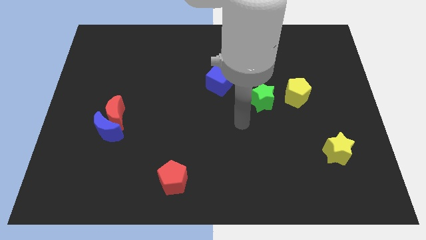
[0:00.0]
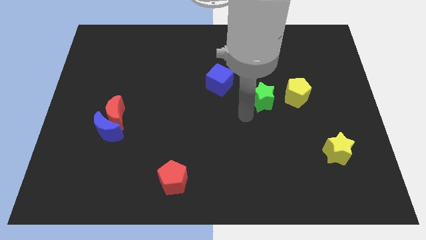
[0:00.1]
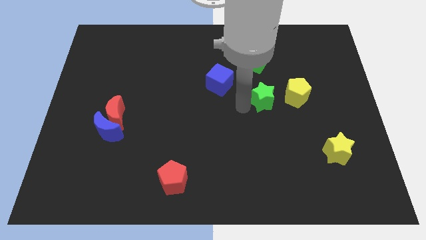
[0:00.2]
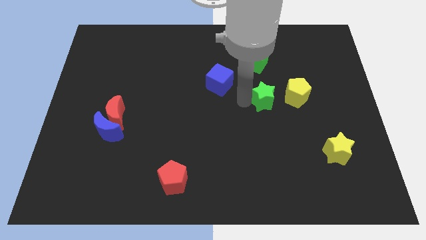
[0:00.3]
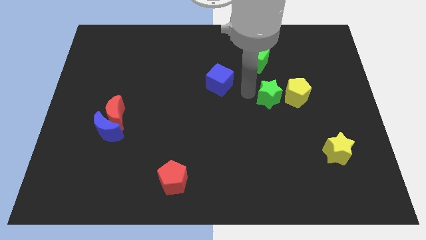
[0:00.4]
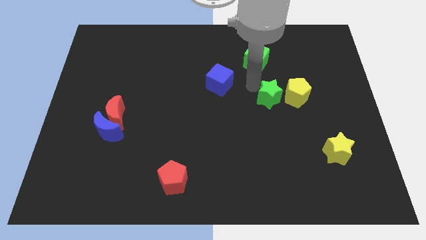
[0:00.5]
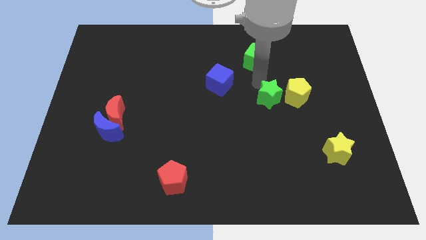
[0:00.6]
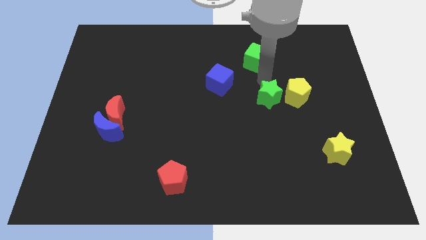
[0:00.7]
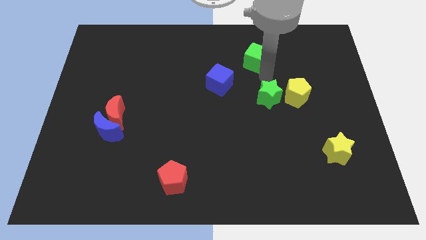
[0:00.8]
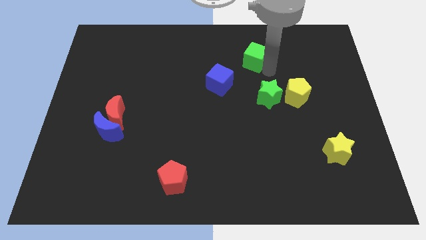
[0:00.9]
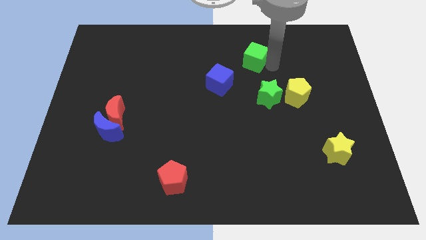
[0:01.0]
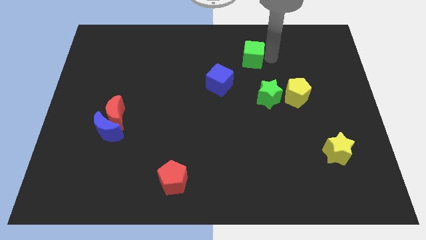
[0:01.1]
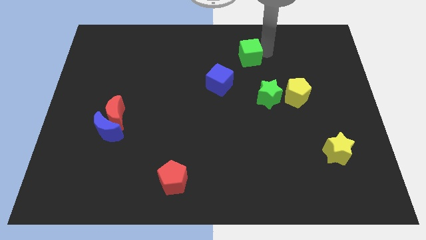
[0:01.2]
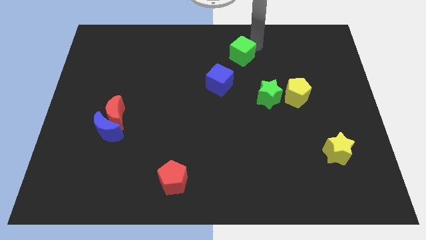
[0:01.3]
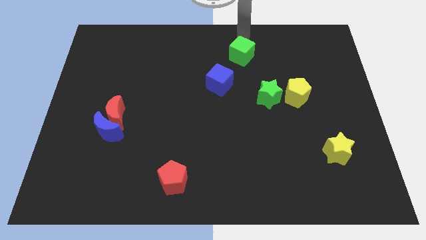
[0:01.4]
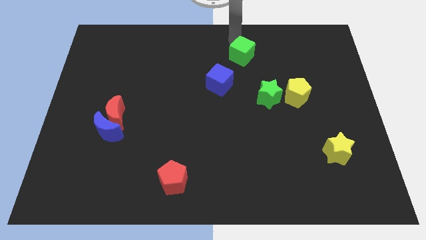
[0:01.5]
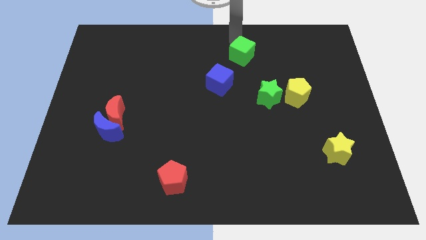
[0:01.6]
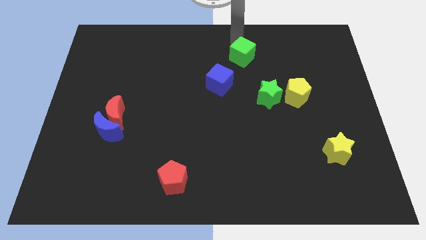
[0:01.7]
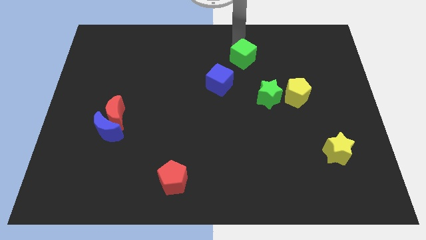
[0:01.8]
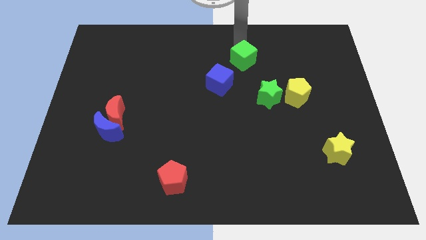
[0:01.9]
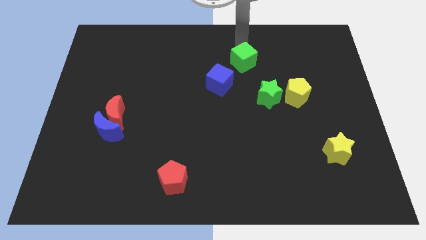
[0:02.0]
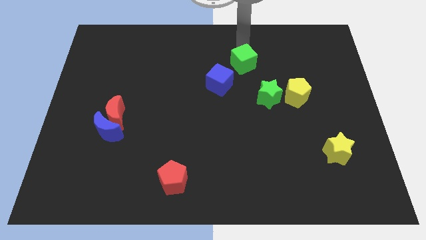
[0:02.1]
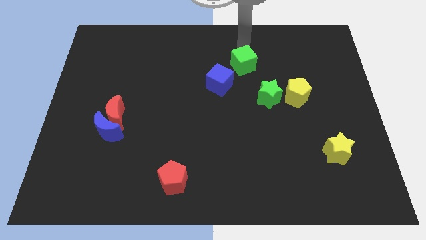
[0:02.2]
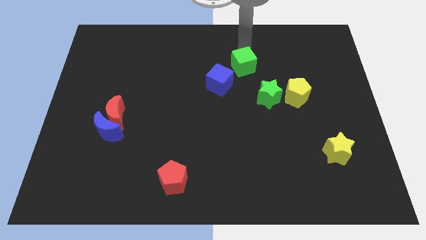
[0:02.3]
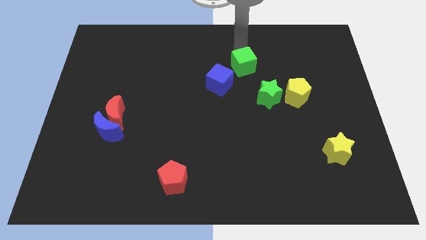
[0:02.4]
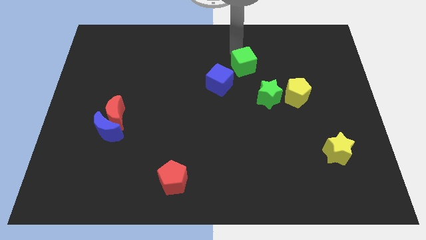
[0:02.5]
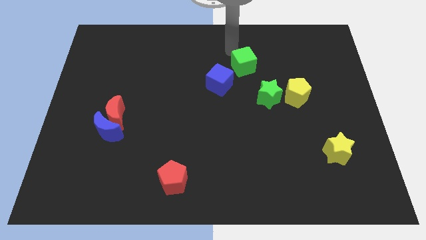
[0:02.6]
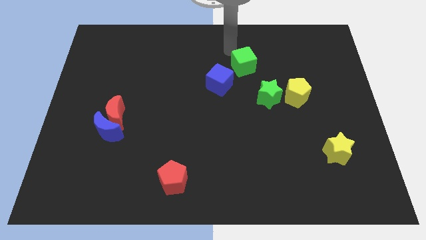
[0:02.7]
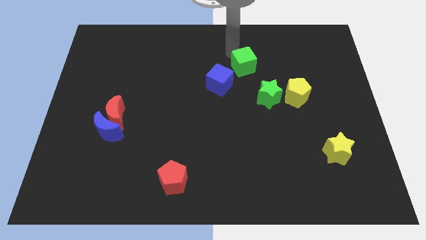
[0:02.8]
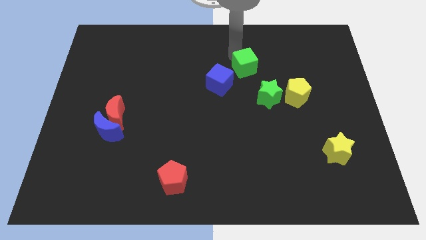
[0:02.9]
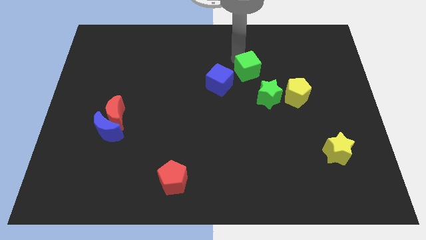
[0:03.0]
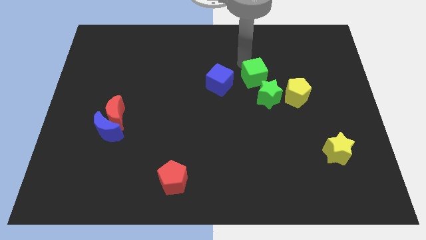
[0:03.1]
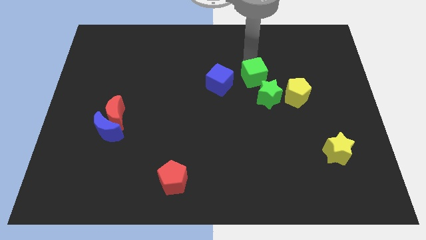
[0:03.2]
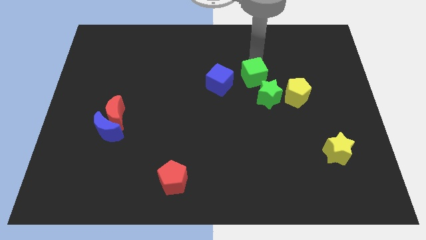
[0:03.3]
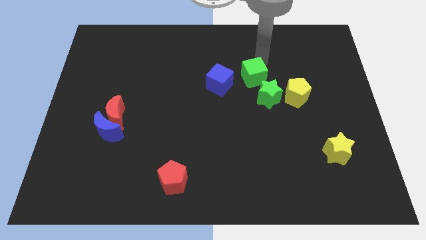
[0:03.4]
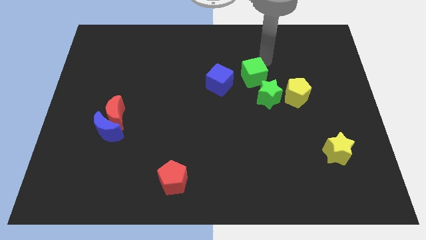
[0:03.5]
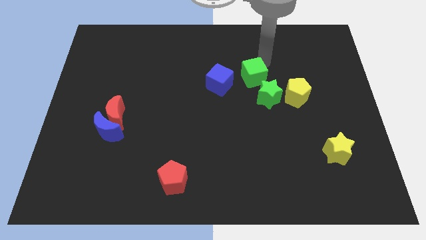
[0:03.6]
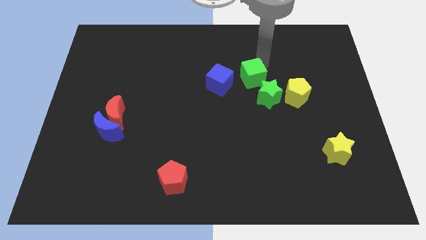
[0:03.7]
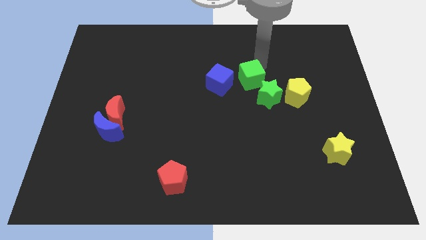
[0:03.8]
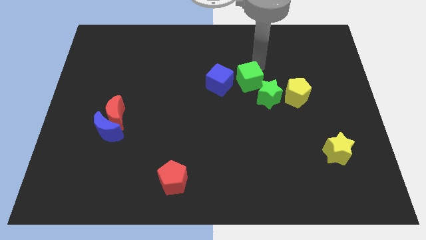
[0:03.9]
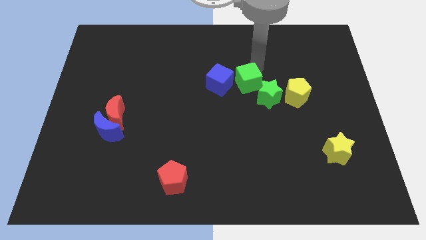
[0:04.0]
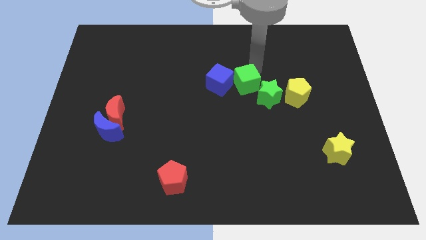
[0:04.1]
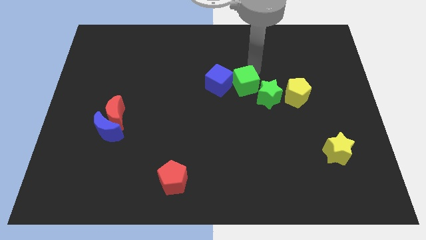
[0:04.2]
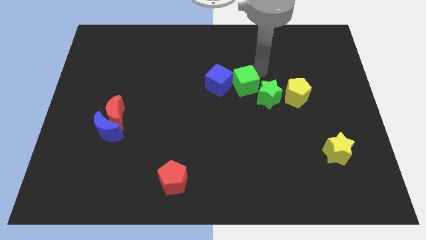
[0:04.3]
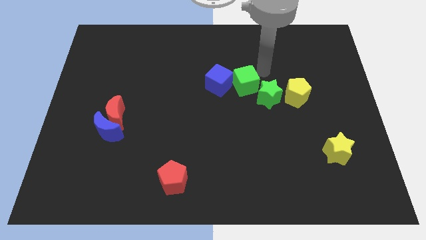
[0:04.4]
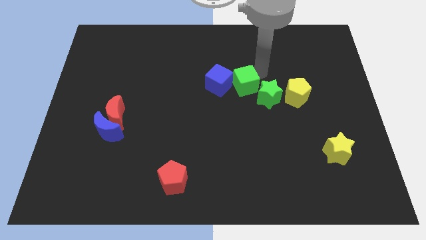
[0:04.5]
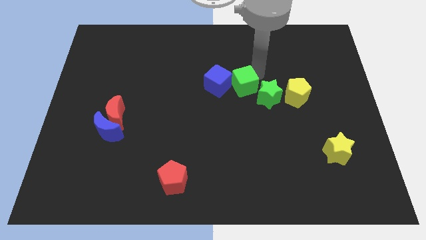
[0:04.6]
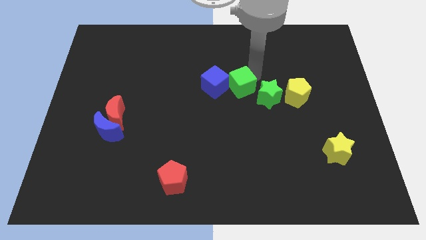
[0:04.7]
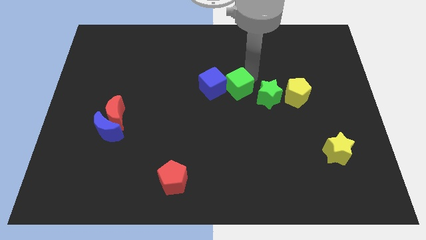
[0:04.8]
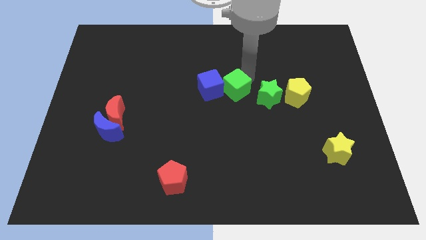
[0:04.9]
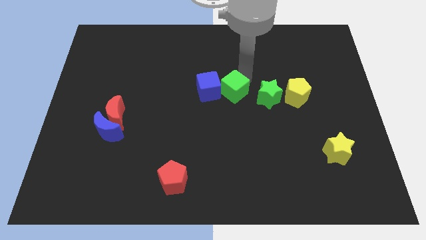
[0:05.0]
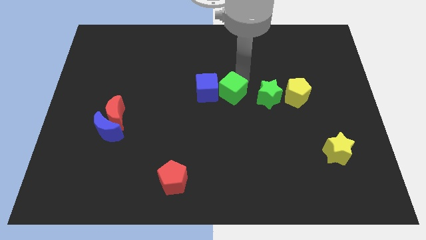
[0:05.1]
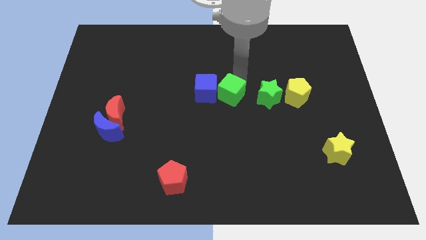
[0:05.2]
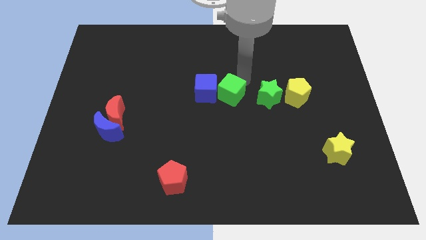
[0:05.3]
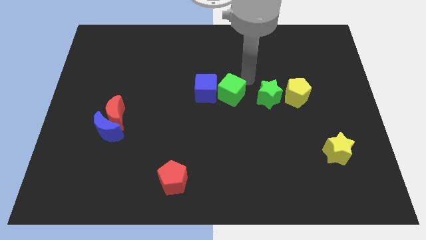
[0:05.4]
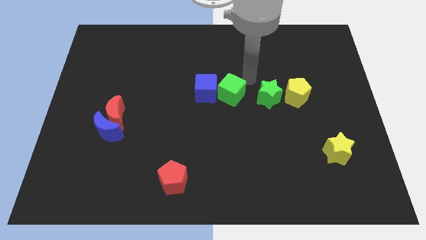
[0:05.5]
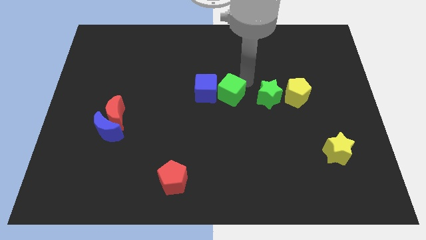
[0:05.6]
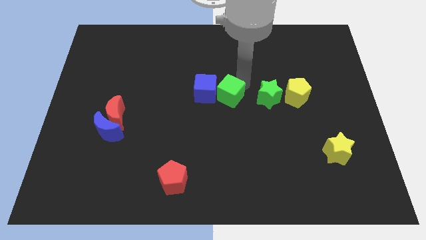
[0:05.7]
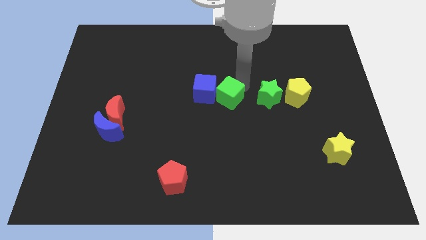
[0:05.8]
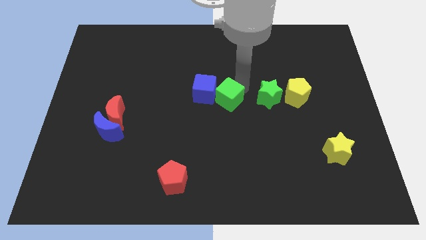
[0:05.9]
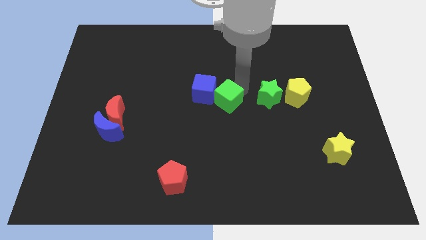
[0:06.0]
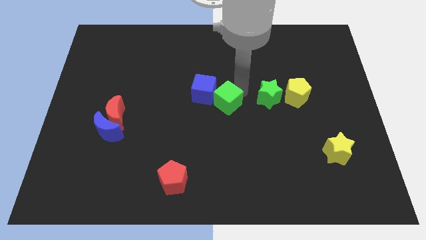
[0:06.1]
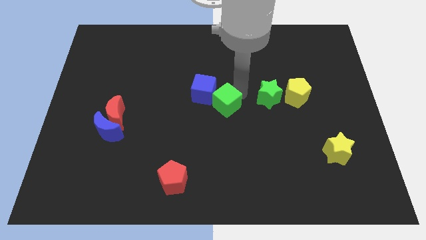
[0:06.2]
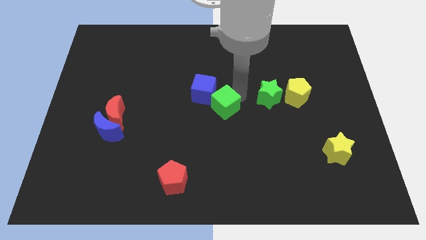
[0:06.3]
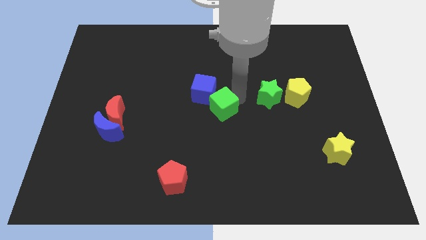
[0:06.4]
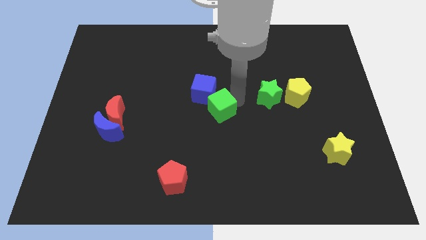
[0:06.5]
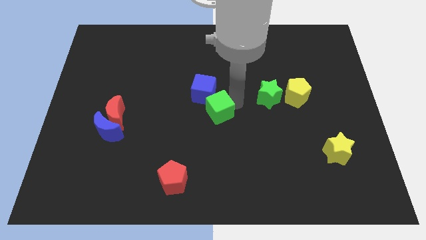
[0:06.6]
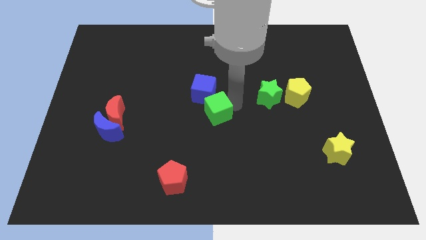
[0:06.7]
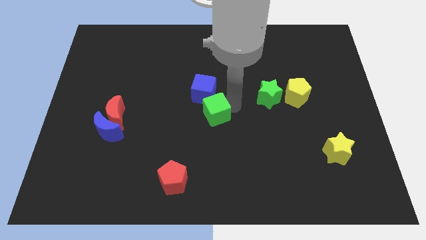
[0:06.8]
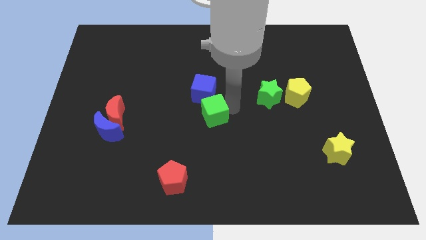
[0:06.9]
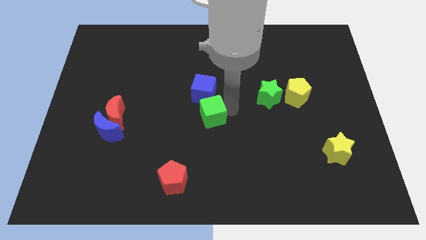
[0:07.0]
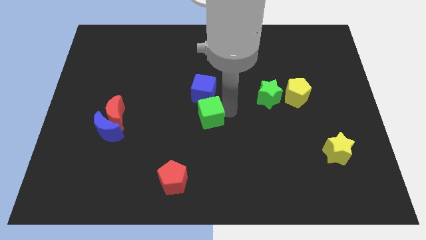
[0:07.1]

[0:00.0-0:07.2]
move the green cube diagonally down and to the left

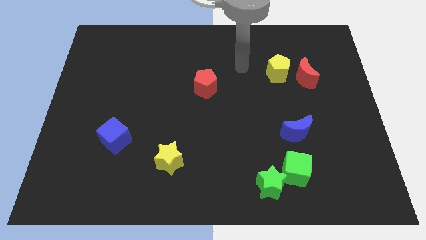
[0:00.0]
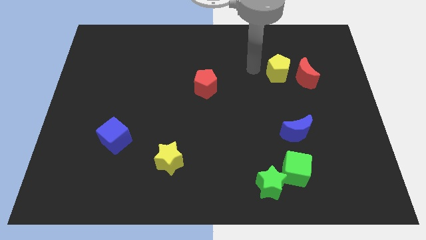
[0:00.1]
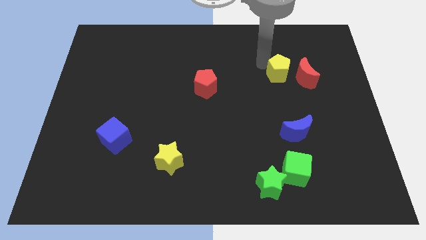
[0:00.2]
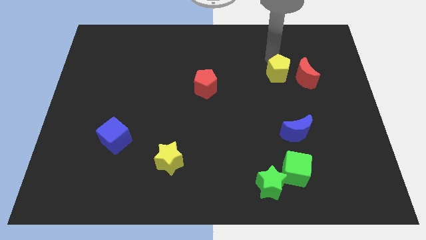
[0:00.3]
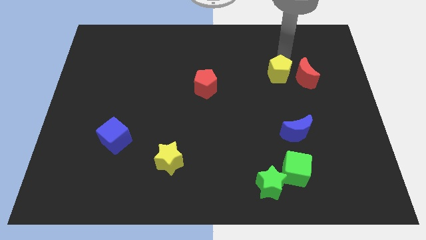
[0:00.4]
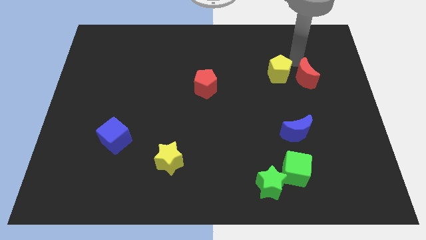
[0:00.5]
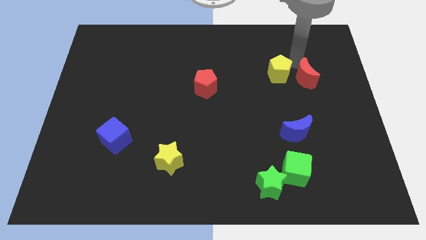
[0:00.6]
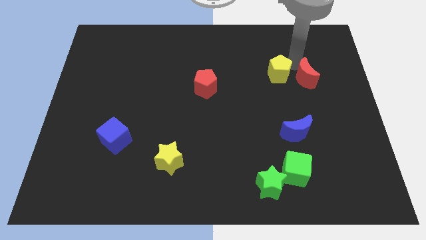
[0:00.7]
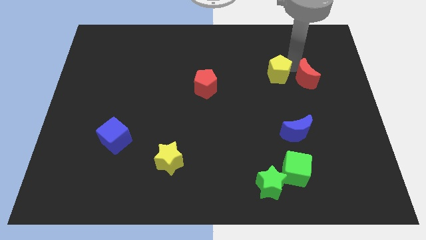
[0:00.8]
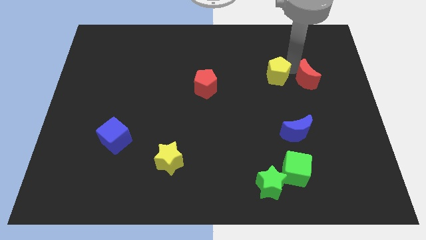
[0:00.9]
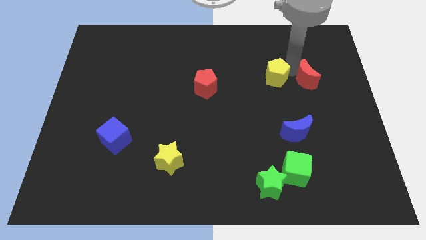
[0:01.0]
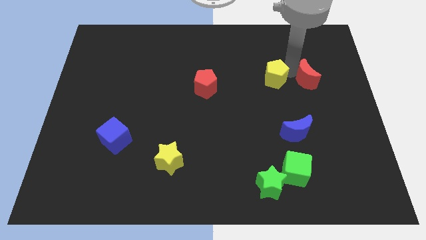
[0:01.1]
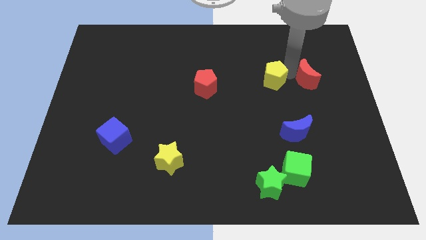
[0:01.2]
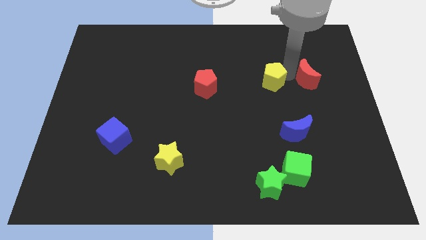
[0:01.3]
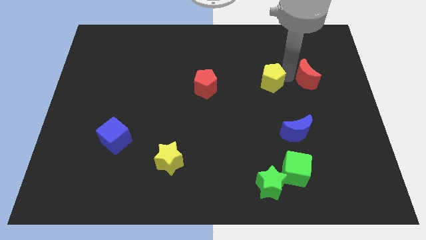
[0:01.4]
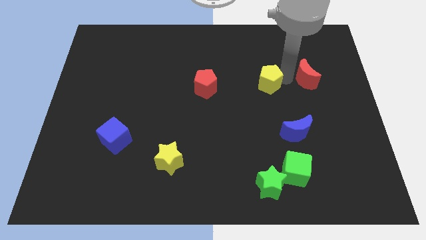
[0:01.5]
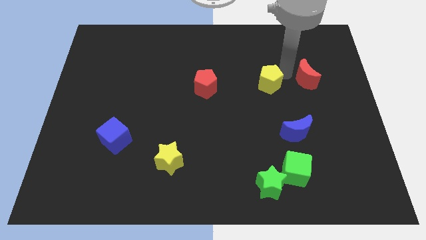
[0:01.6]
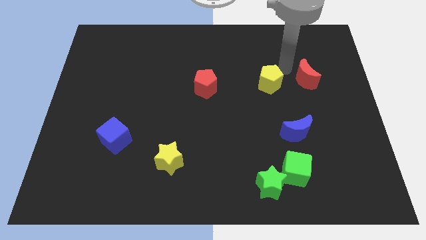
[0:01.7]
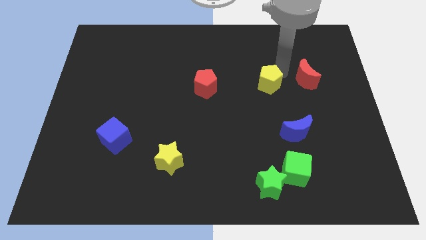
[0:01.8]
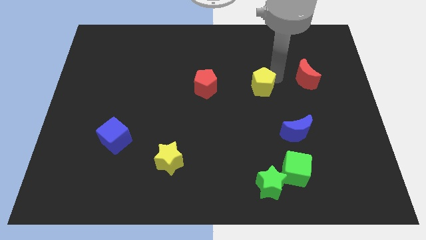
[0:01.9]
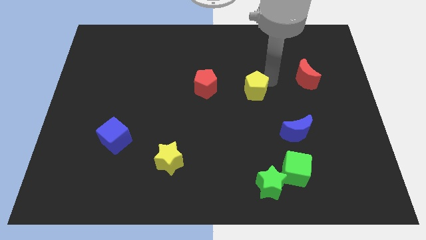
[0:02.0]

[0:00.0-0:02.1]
push the yellow pentagon a little down and then left
